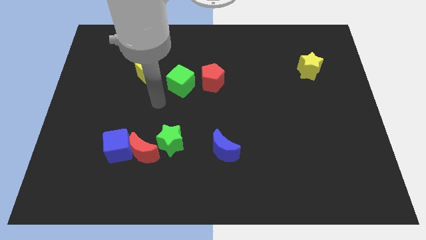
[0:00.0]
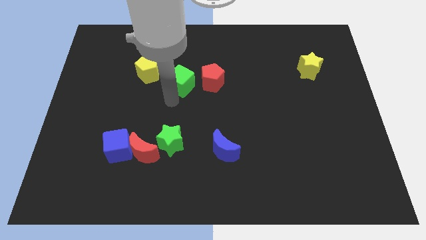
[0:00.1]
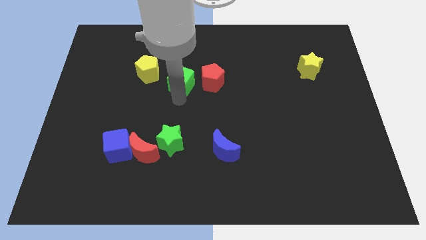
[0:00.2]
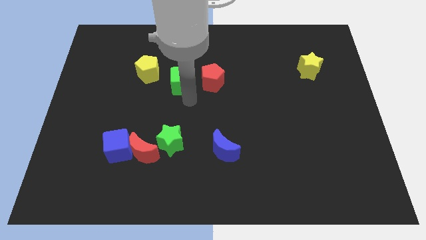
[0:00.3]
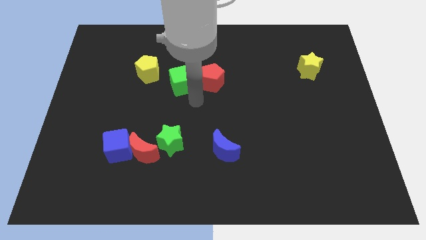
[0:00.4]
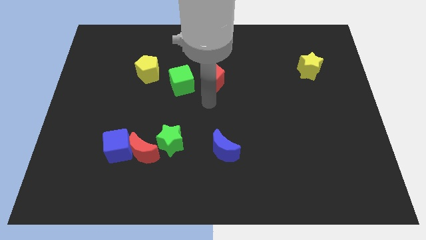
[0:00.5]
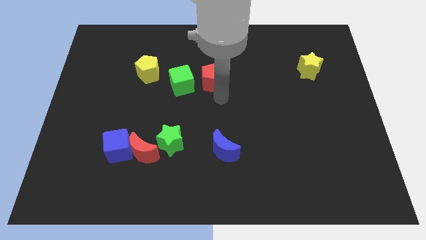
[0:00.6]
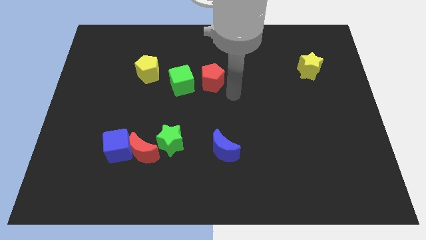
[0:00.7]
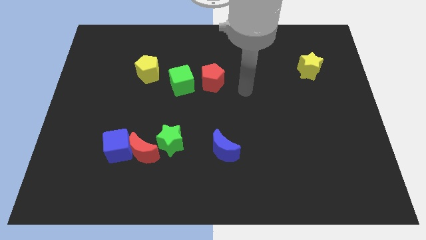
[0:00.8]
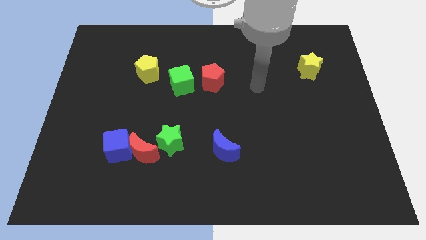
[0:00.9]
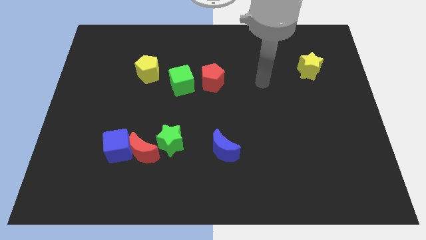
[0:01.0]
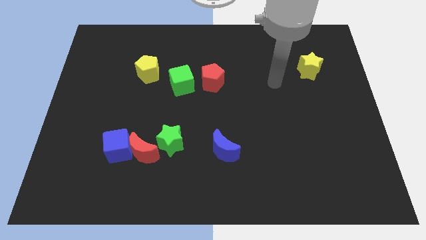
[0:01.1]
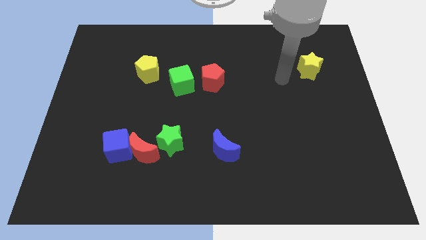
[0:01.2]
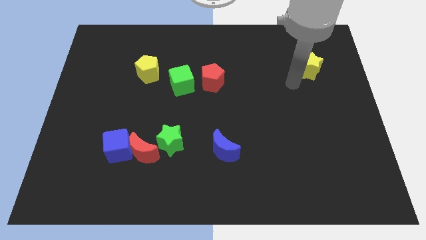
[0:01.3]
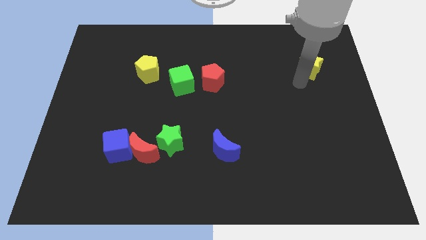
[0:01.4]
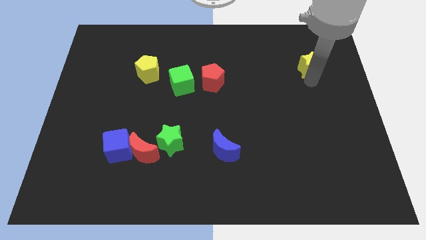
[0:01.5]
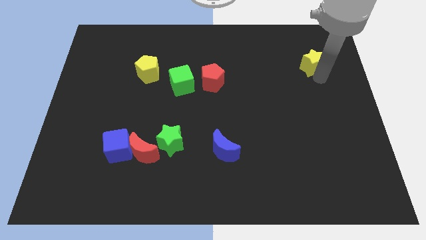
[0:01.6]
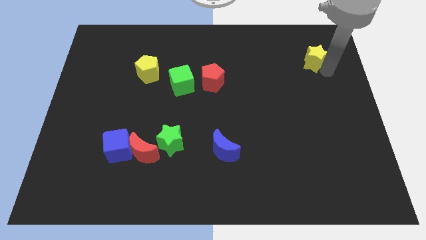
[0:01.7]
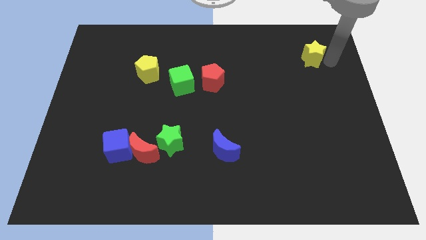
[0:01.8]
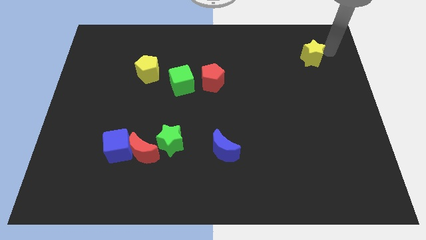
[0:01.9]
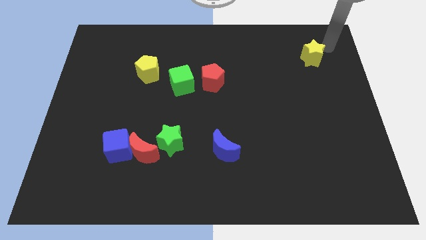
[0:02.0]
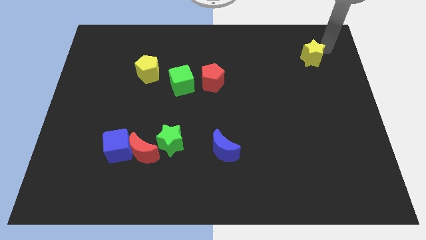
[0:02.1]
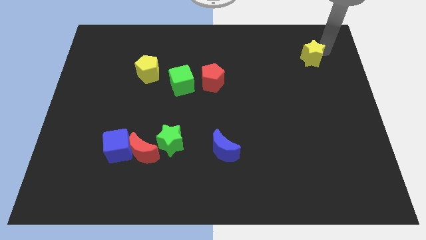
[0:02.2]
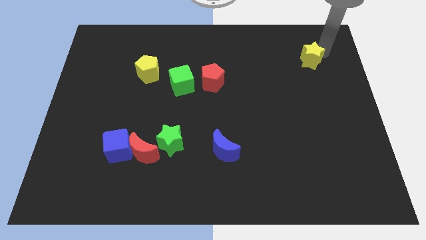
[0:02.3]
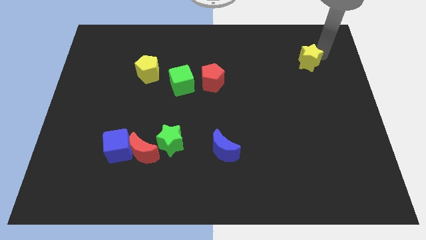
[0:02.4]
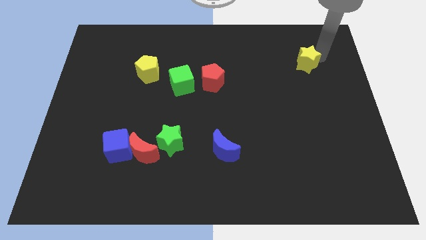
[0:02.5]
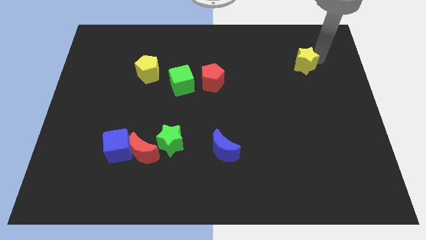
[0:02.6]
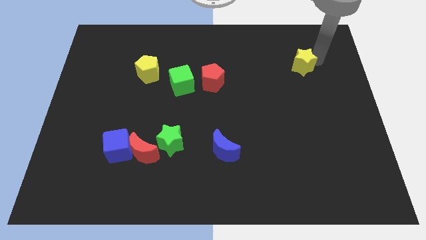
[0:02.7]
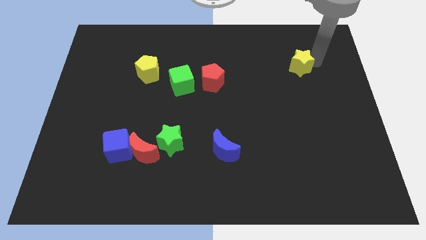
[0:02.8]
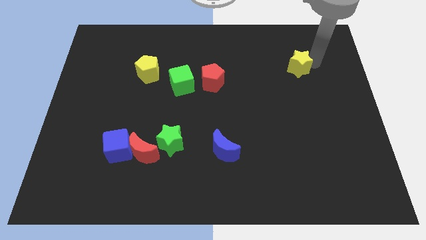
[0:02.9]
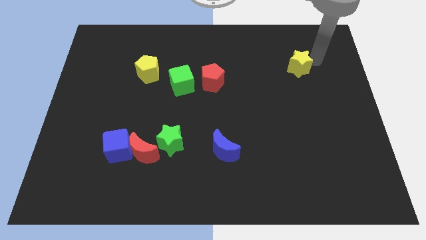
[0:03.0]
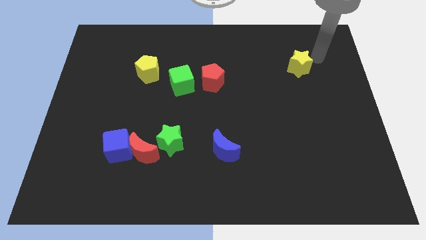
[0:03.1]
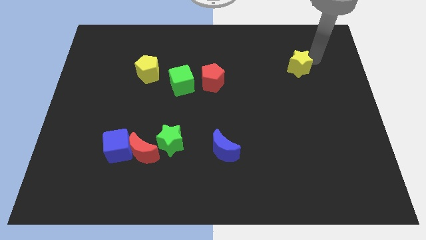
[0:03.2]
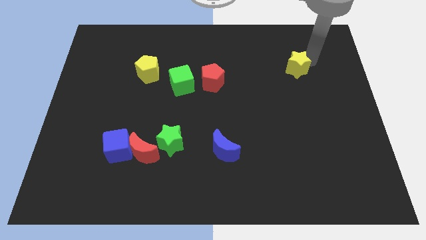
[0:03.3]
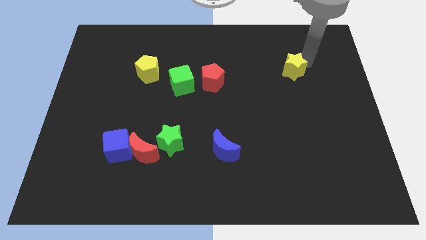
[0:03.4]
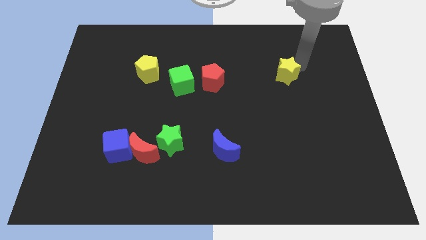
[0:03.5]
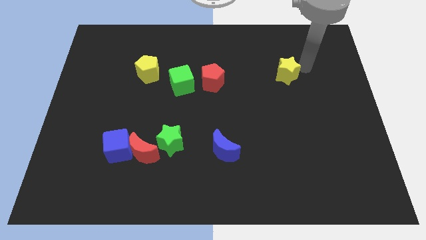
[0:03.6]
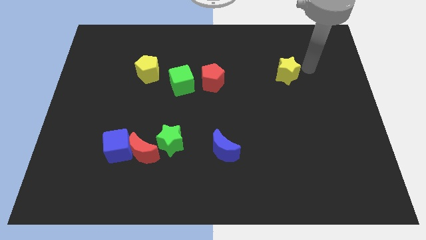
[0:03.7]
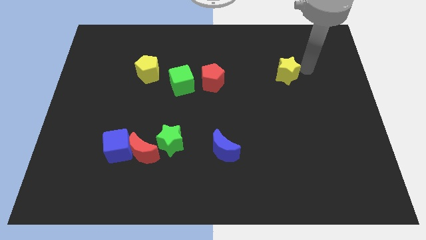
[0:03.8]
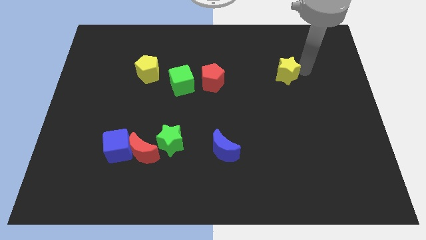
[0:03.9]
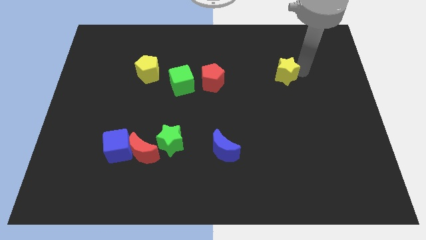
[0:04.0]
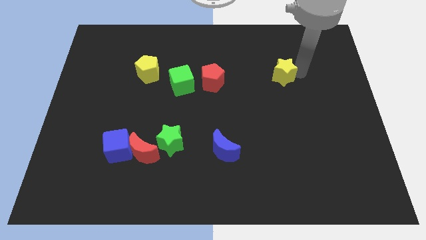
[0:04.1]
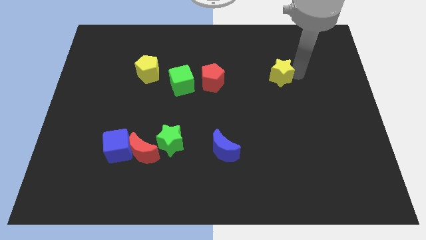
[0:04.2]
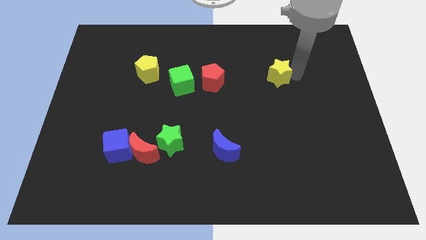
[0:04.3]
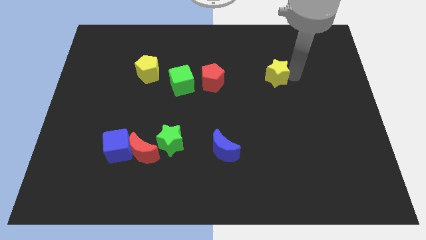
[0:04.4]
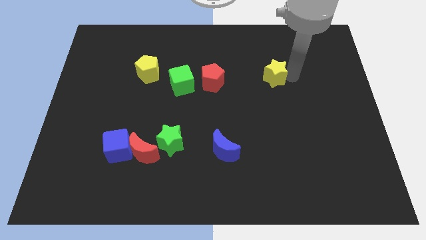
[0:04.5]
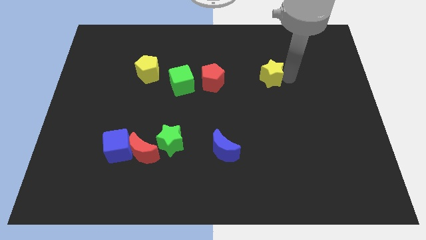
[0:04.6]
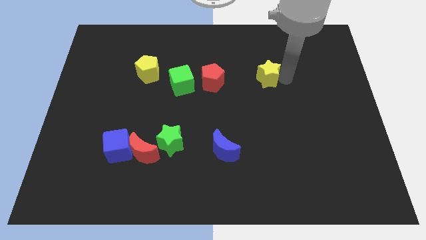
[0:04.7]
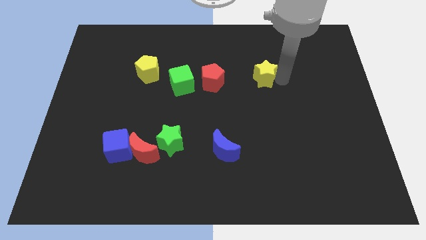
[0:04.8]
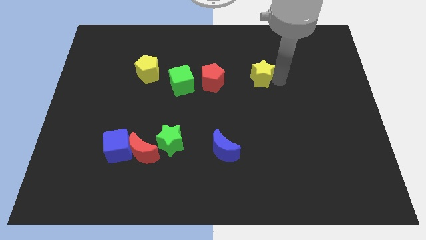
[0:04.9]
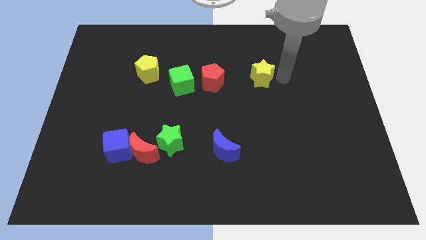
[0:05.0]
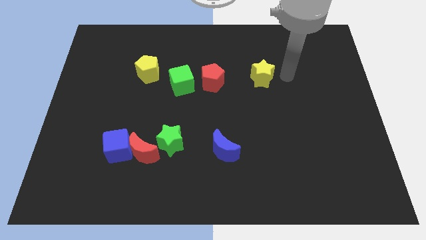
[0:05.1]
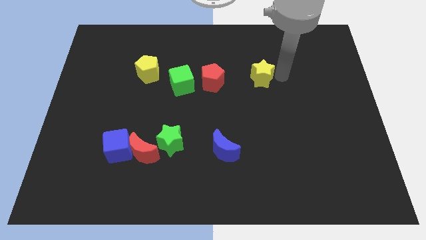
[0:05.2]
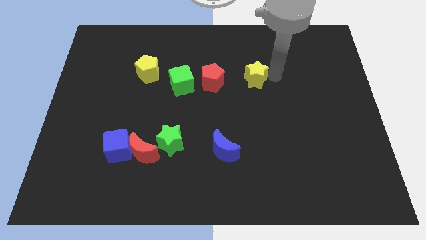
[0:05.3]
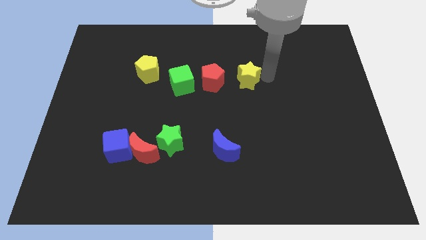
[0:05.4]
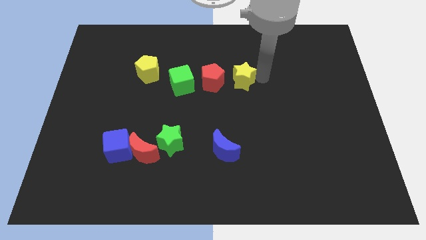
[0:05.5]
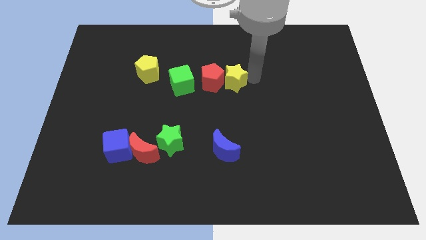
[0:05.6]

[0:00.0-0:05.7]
move the yellow star next to the red pentagon

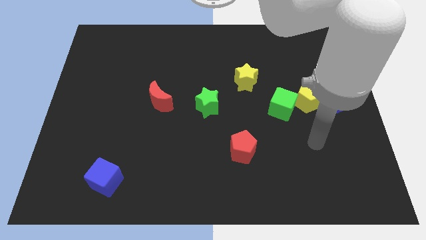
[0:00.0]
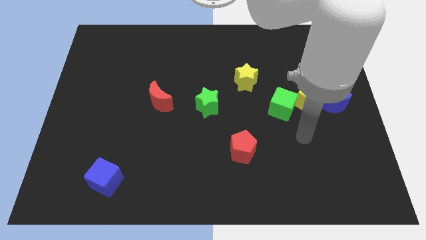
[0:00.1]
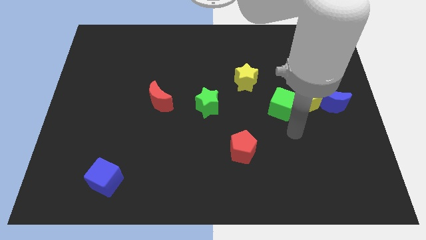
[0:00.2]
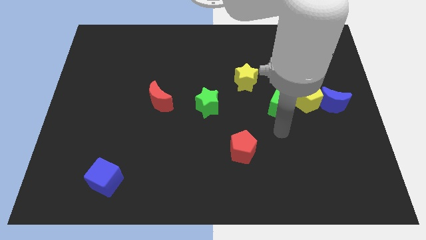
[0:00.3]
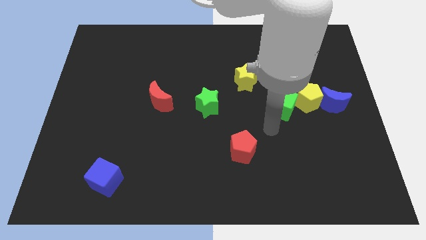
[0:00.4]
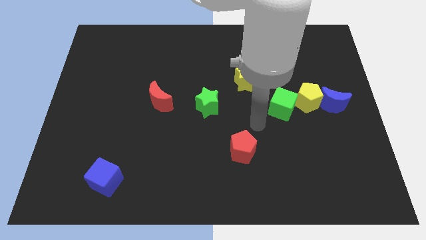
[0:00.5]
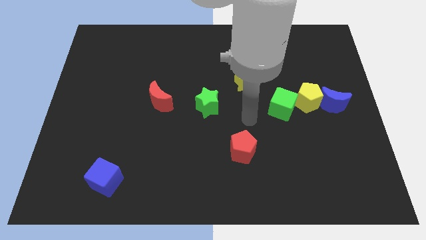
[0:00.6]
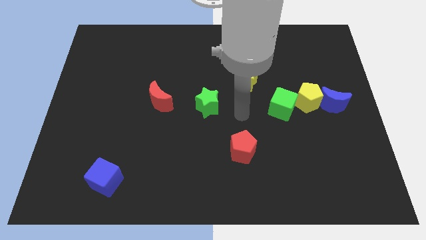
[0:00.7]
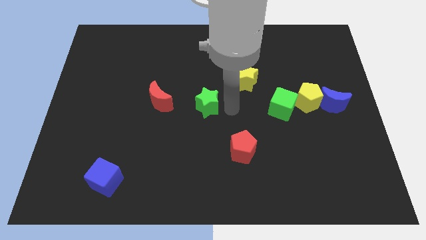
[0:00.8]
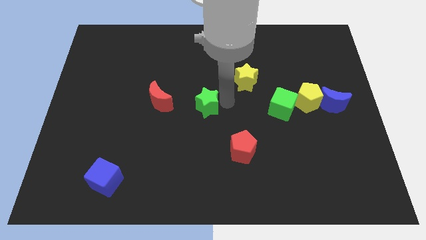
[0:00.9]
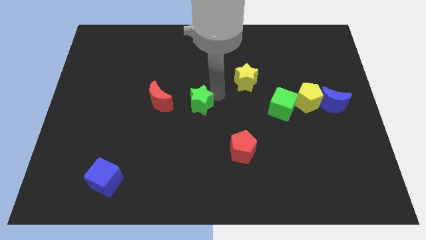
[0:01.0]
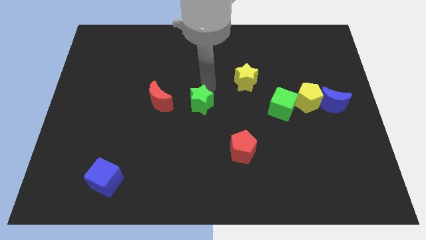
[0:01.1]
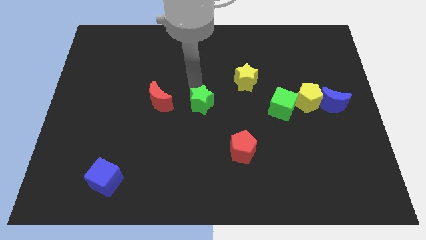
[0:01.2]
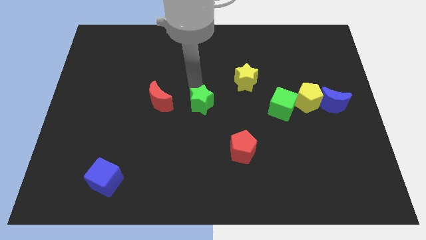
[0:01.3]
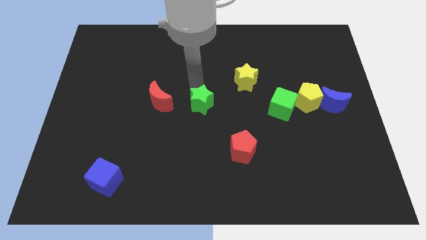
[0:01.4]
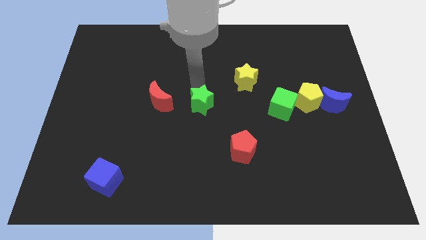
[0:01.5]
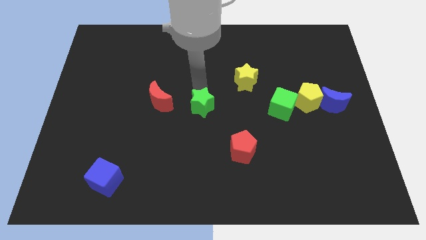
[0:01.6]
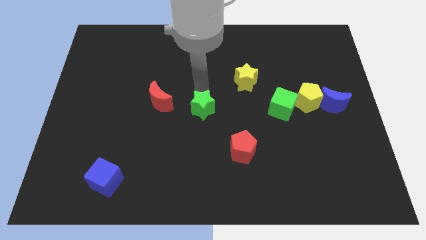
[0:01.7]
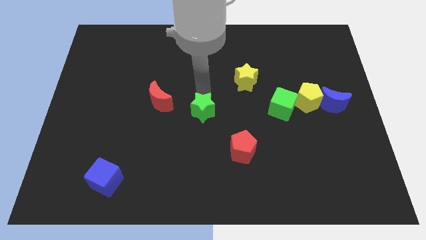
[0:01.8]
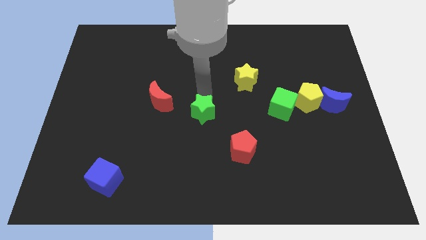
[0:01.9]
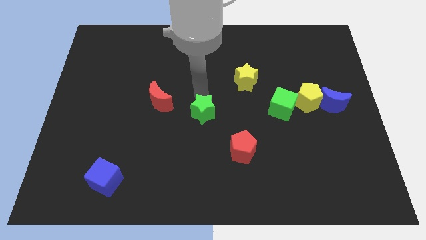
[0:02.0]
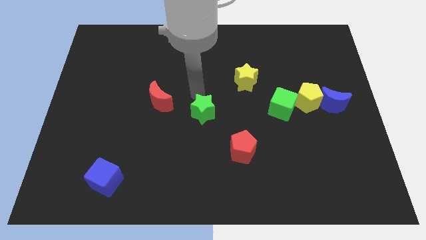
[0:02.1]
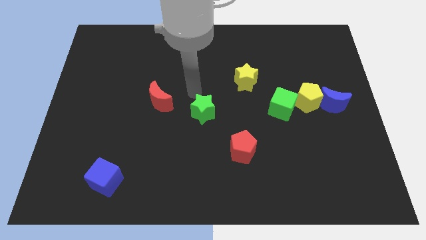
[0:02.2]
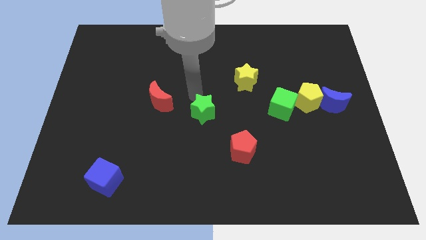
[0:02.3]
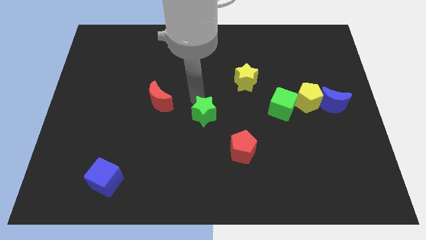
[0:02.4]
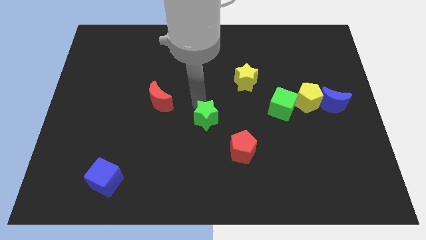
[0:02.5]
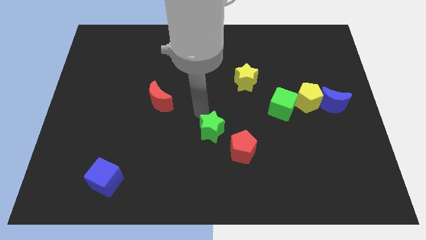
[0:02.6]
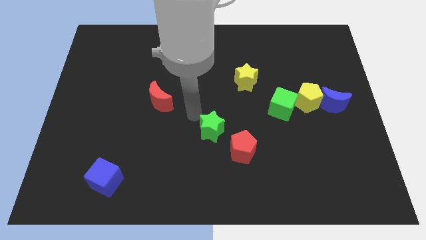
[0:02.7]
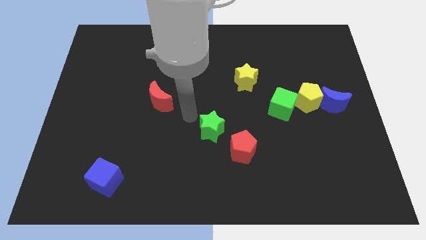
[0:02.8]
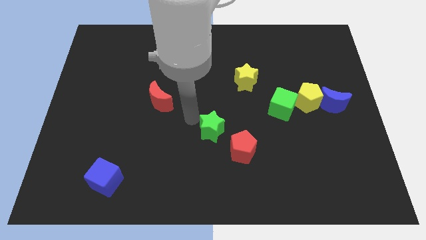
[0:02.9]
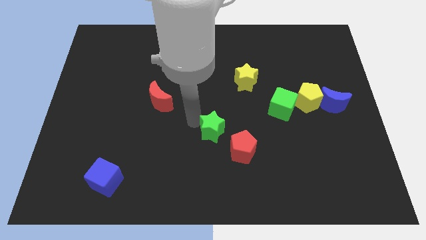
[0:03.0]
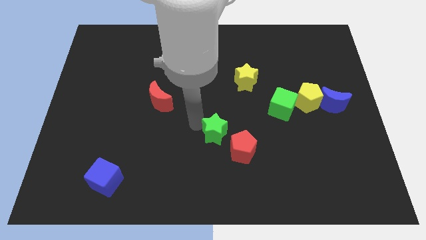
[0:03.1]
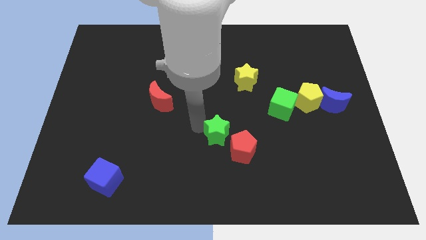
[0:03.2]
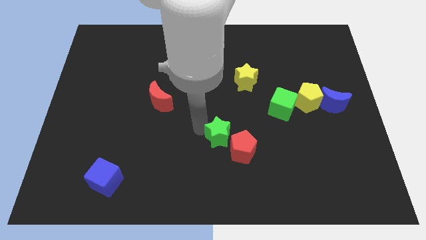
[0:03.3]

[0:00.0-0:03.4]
push the green star towards the red pentagon
